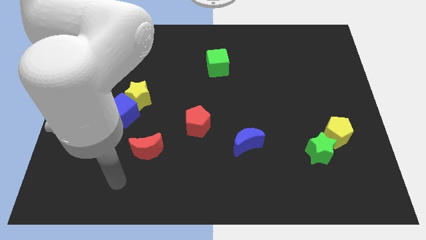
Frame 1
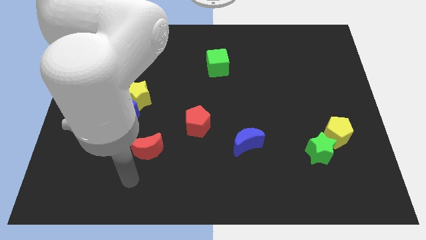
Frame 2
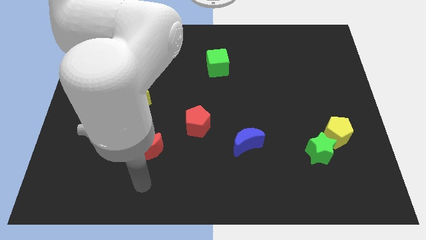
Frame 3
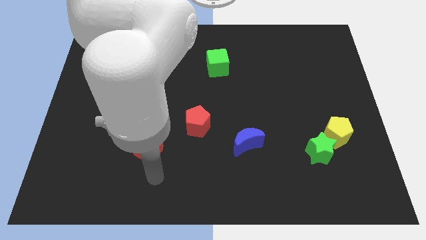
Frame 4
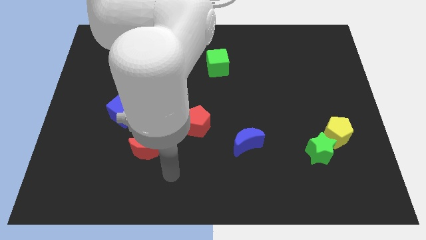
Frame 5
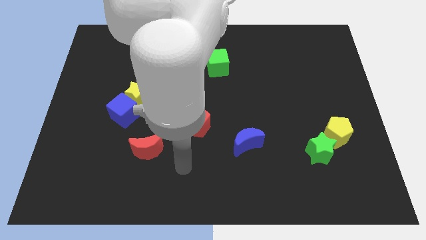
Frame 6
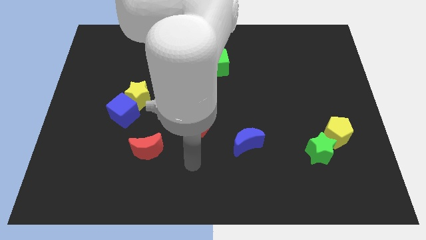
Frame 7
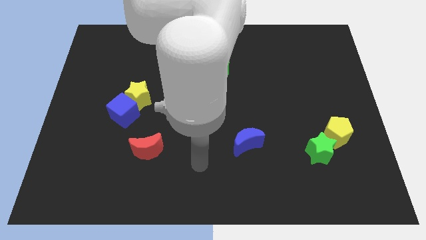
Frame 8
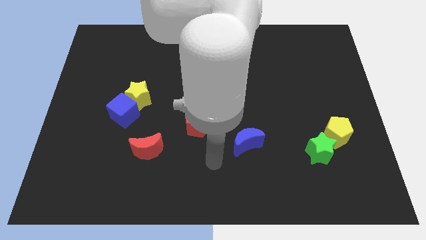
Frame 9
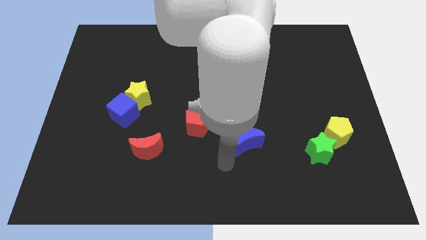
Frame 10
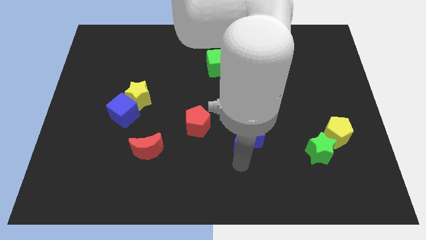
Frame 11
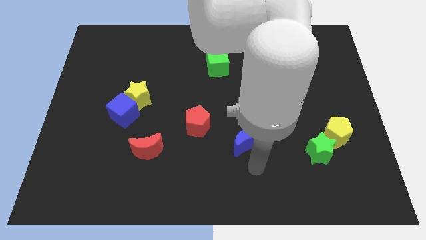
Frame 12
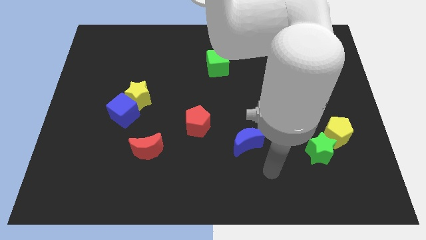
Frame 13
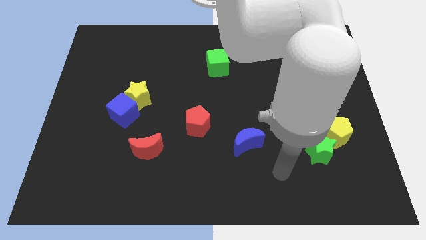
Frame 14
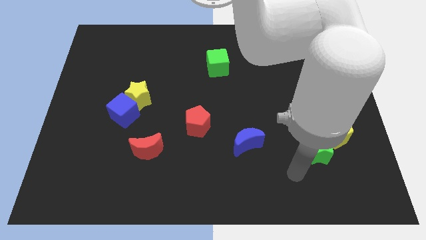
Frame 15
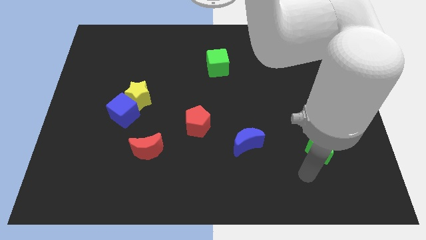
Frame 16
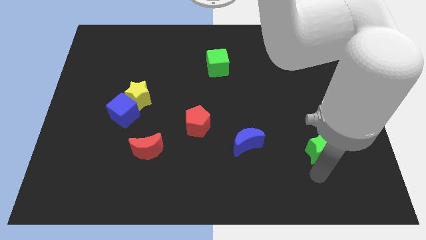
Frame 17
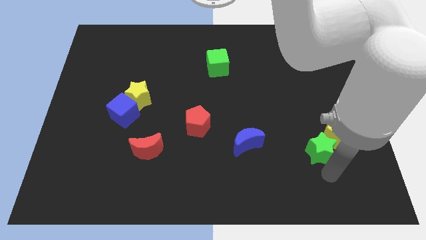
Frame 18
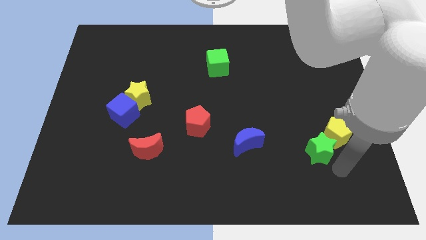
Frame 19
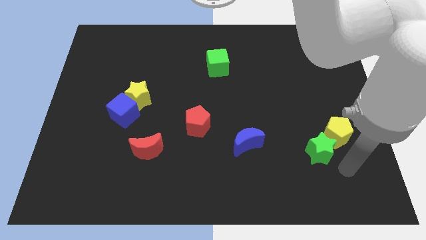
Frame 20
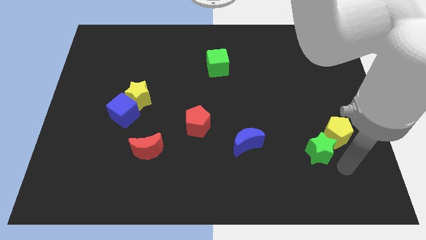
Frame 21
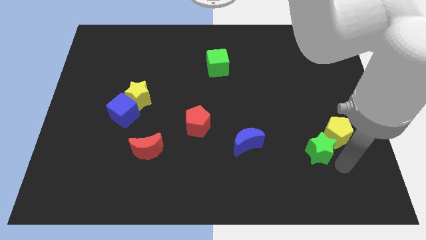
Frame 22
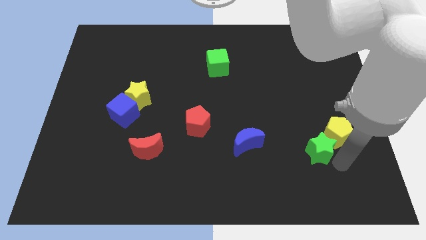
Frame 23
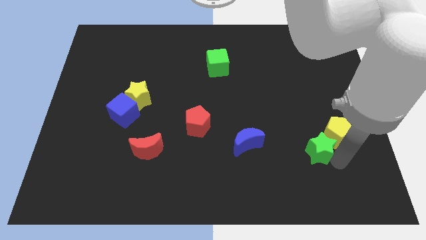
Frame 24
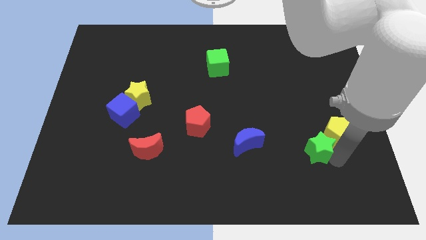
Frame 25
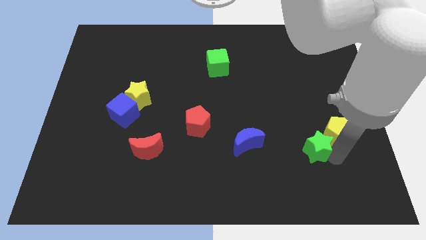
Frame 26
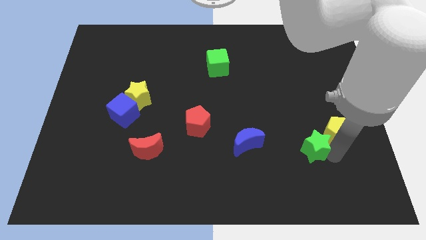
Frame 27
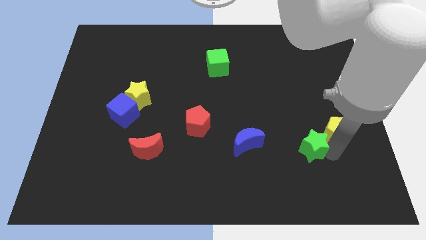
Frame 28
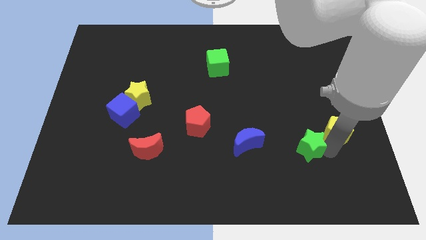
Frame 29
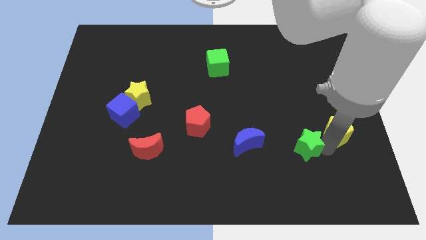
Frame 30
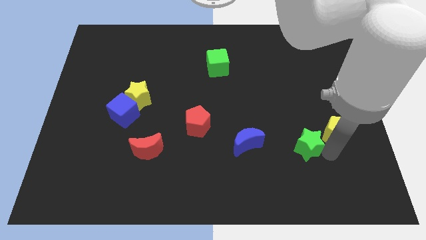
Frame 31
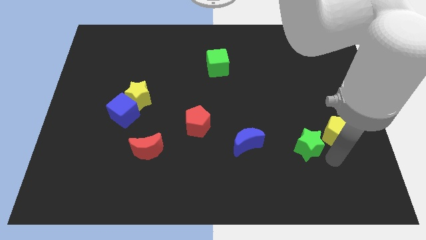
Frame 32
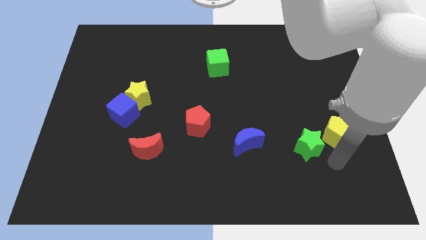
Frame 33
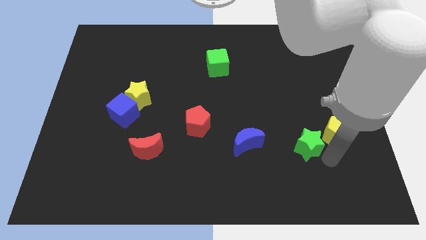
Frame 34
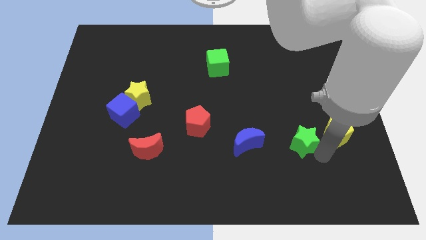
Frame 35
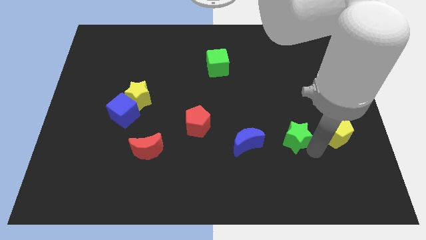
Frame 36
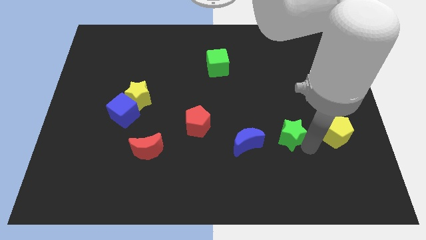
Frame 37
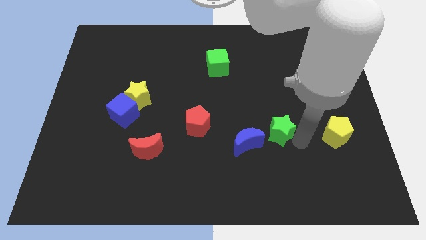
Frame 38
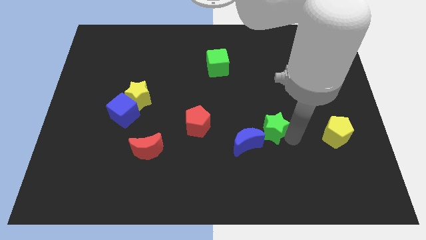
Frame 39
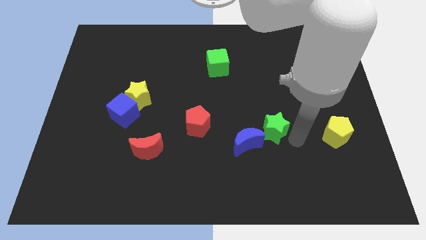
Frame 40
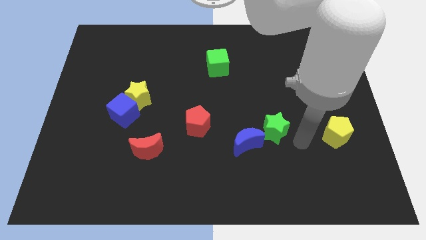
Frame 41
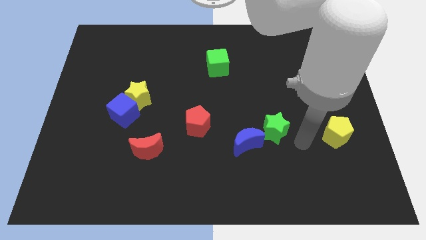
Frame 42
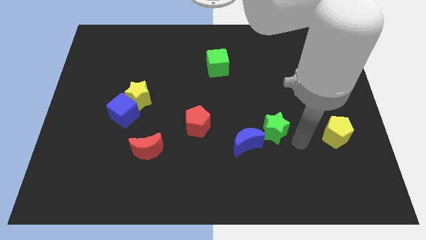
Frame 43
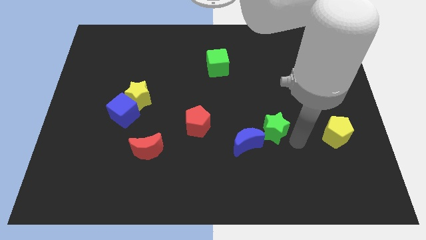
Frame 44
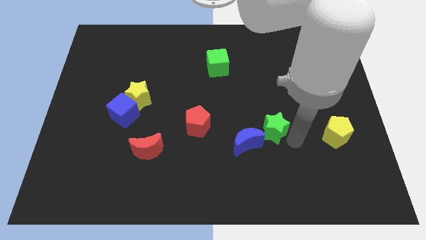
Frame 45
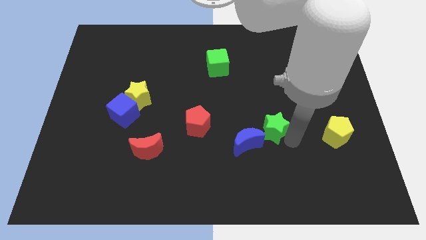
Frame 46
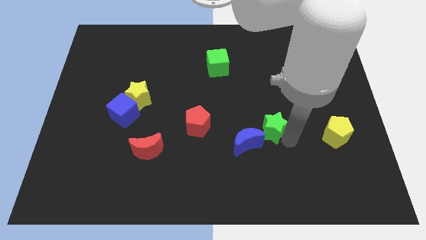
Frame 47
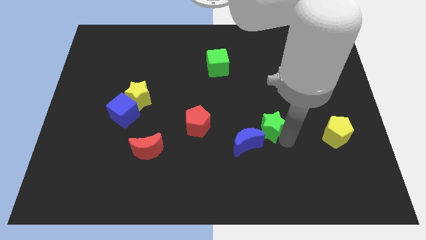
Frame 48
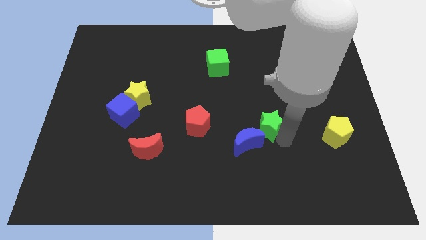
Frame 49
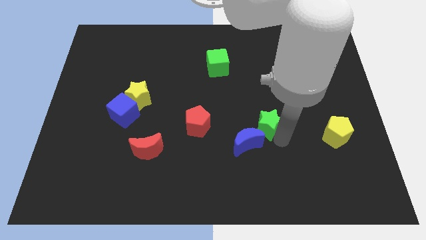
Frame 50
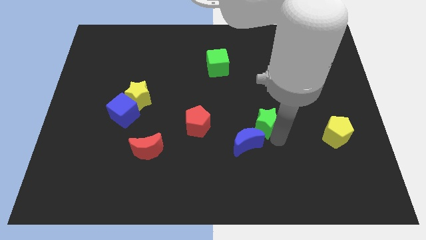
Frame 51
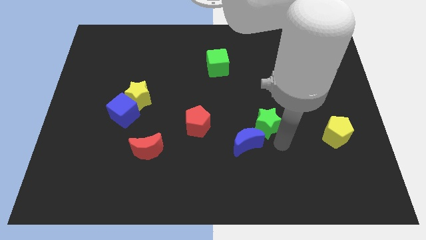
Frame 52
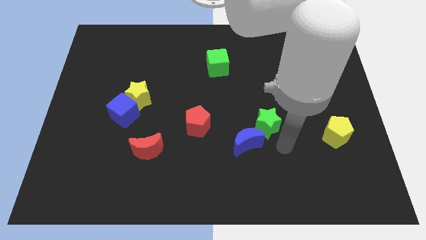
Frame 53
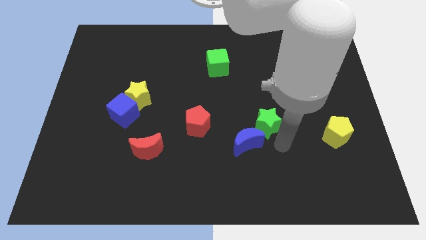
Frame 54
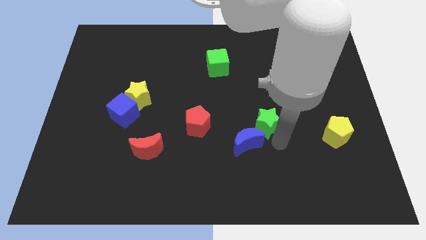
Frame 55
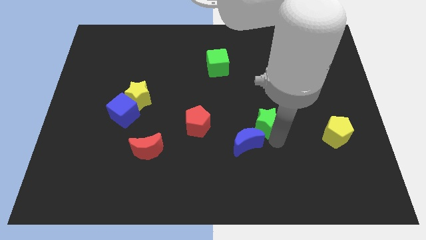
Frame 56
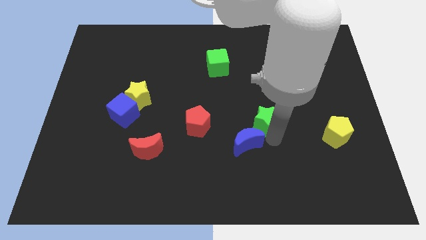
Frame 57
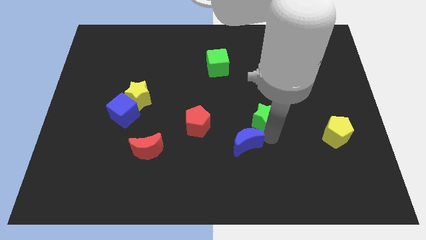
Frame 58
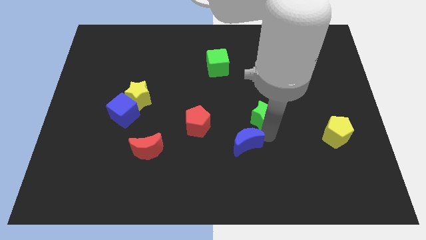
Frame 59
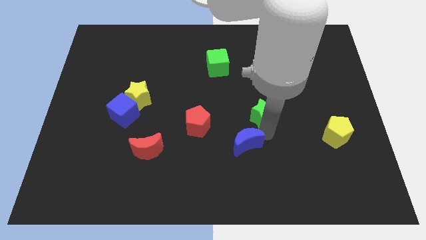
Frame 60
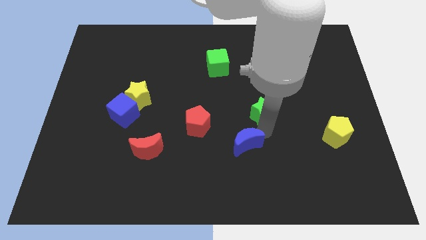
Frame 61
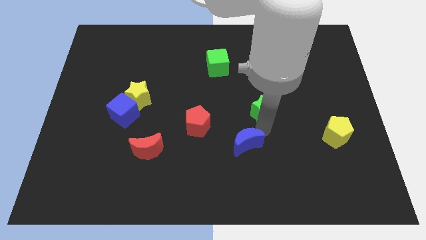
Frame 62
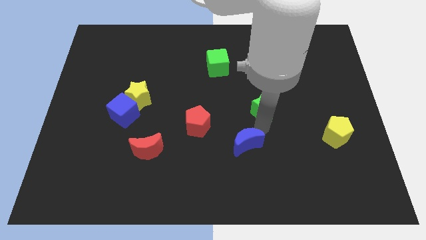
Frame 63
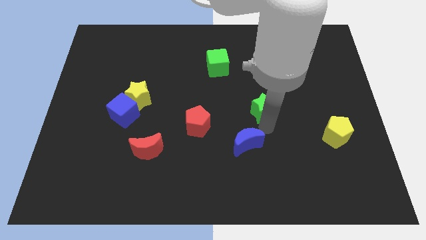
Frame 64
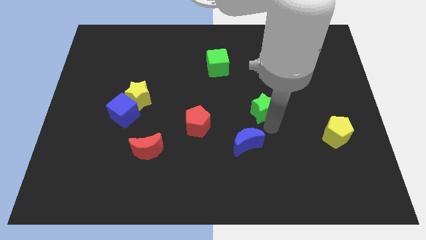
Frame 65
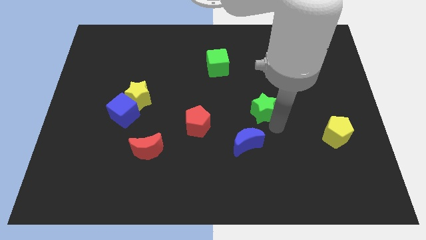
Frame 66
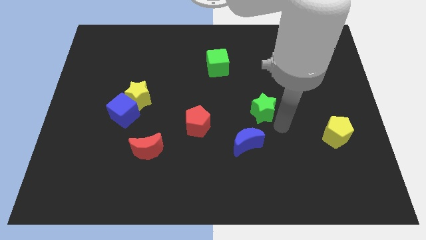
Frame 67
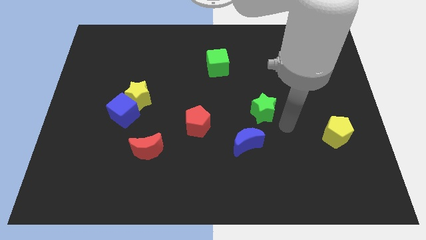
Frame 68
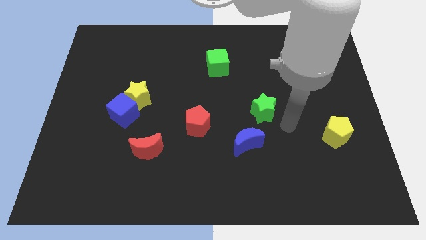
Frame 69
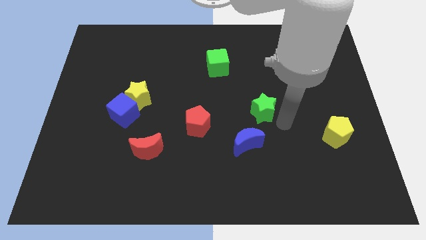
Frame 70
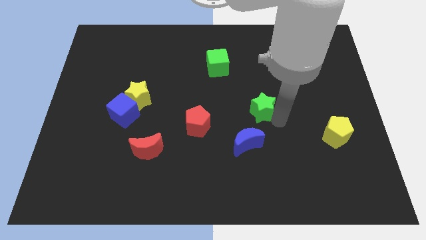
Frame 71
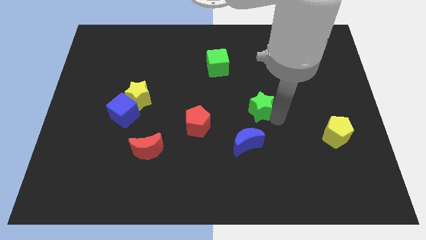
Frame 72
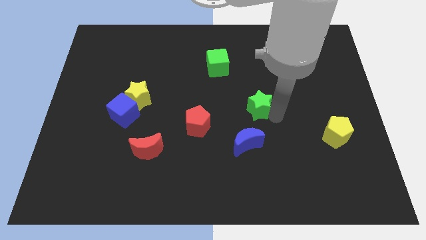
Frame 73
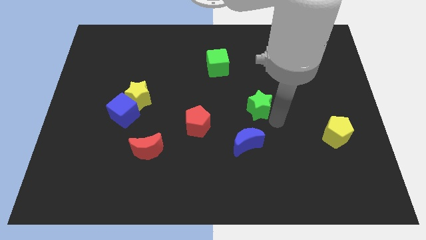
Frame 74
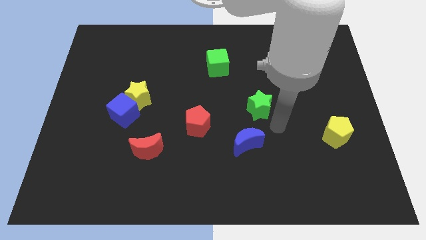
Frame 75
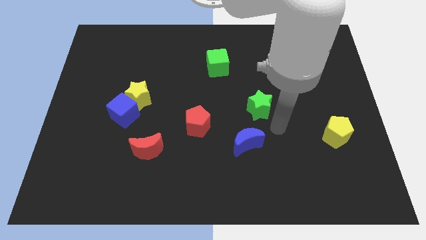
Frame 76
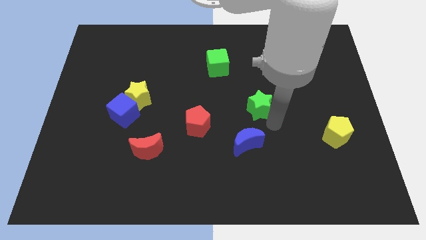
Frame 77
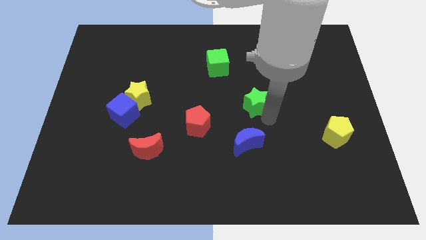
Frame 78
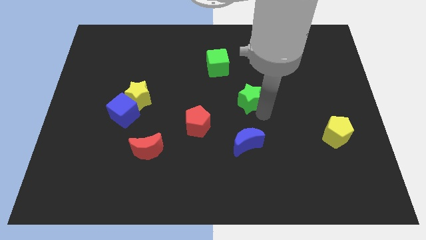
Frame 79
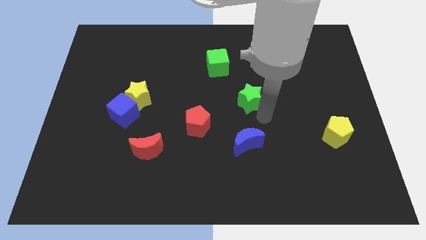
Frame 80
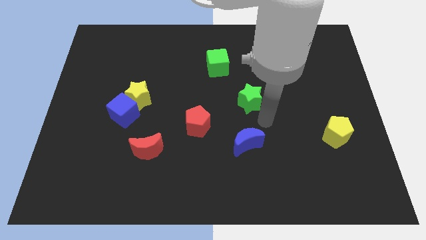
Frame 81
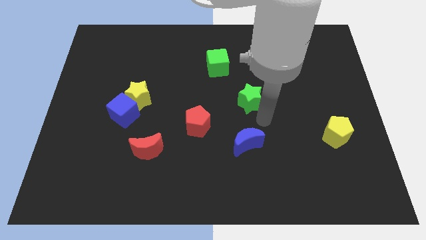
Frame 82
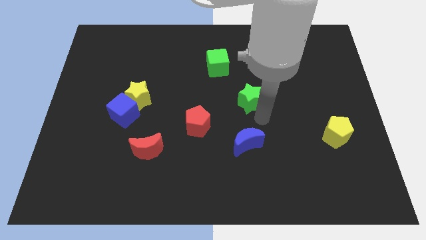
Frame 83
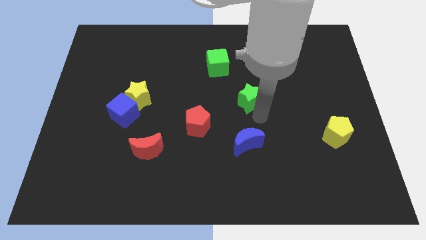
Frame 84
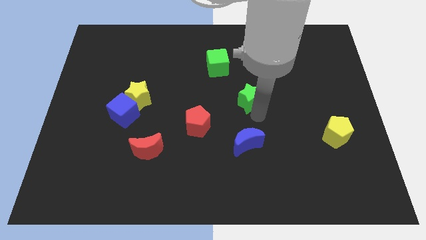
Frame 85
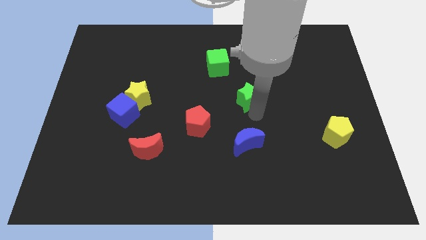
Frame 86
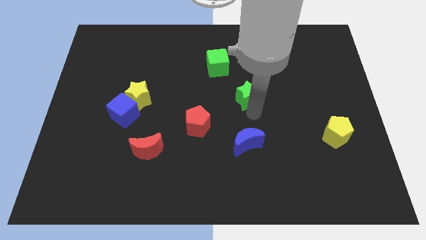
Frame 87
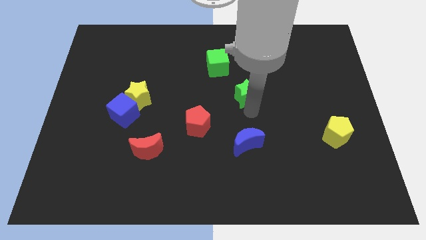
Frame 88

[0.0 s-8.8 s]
put the green star to the bottom right side of the green cube
